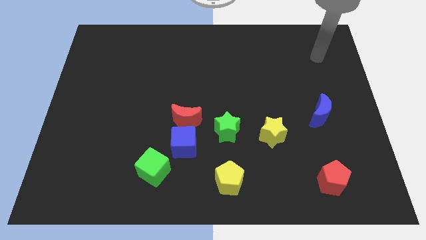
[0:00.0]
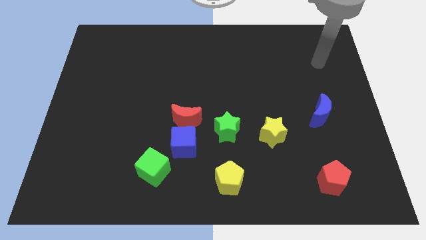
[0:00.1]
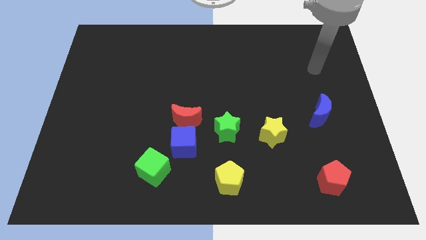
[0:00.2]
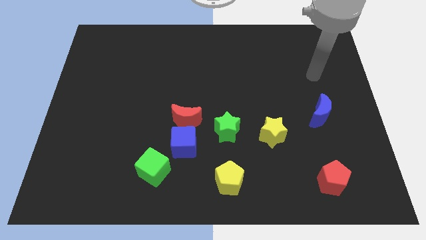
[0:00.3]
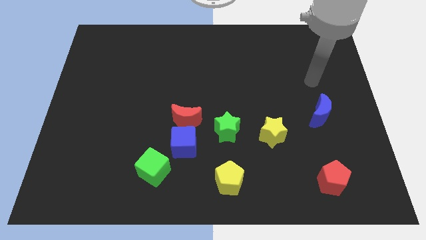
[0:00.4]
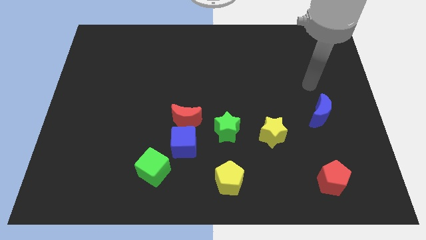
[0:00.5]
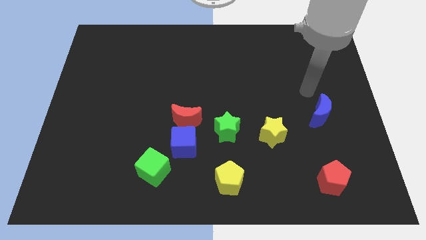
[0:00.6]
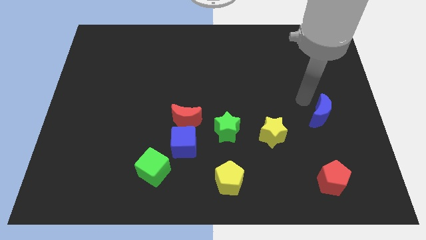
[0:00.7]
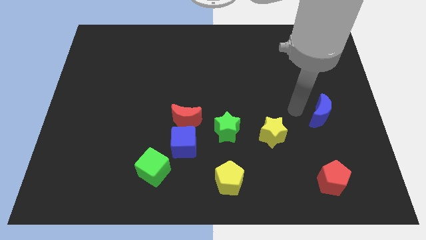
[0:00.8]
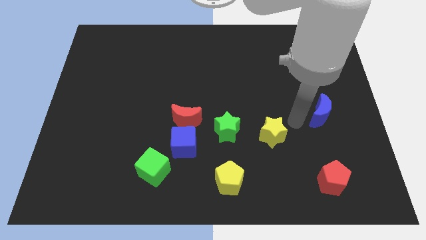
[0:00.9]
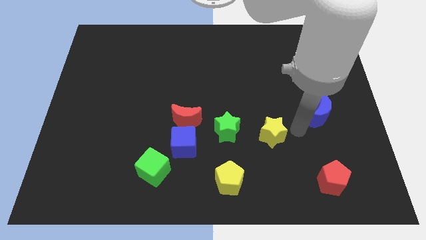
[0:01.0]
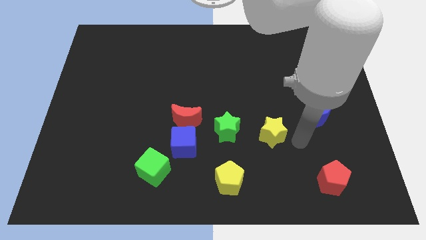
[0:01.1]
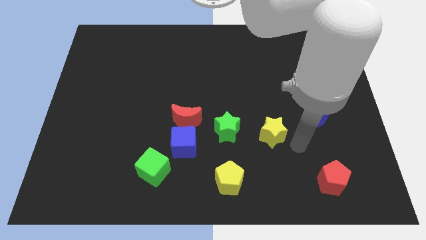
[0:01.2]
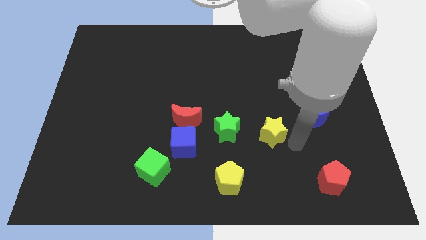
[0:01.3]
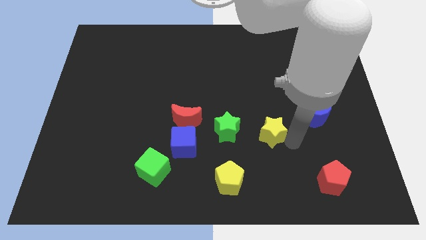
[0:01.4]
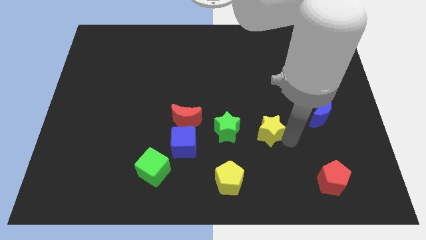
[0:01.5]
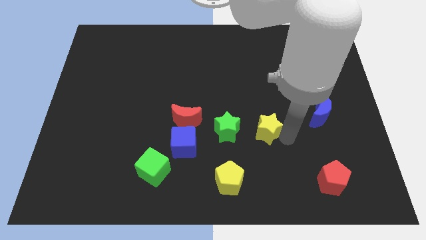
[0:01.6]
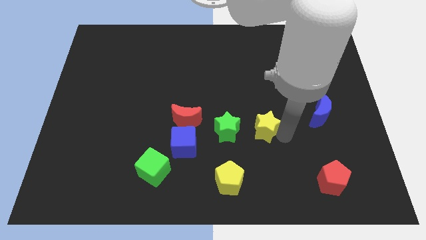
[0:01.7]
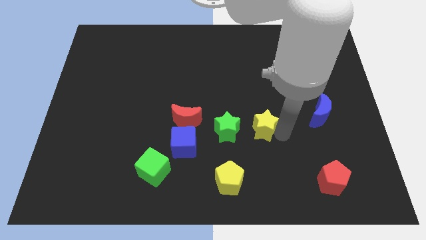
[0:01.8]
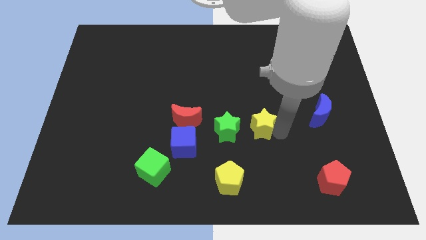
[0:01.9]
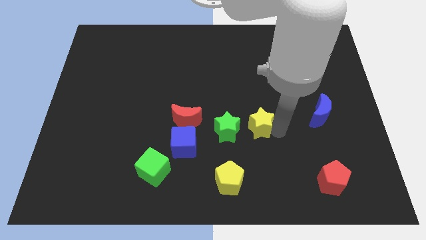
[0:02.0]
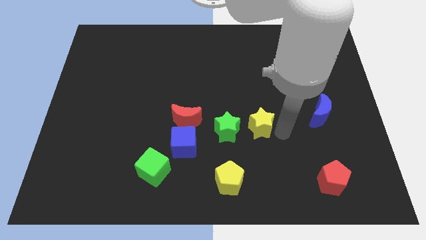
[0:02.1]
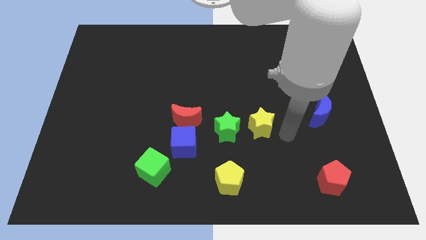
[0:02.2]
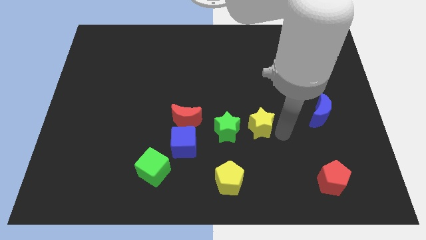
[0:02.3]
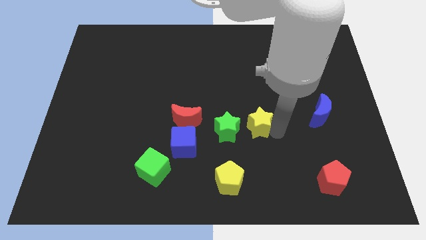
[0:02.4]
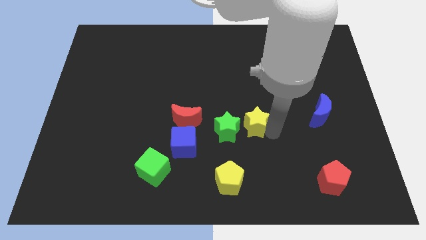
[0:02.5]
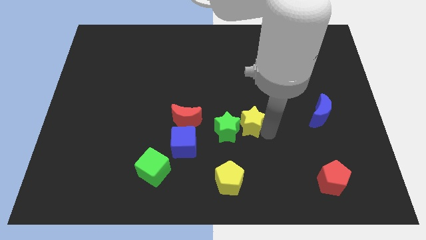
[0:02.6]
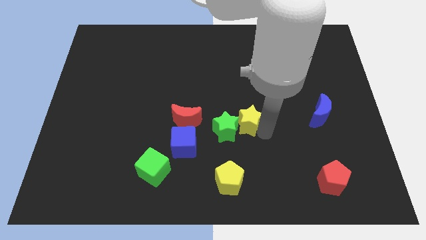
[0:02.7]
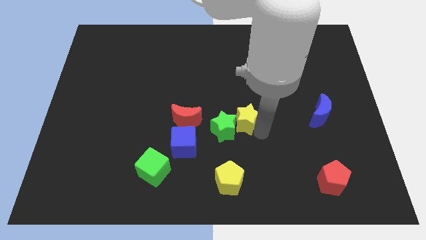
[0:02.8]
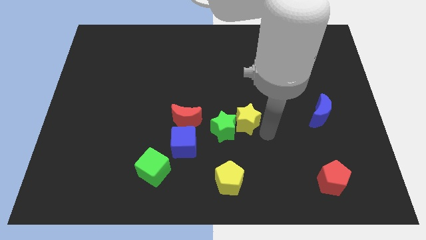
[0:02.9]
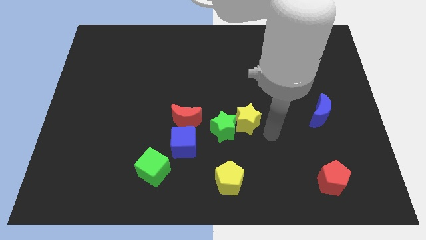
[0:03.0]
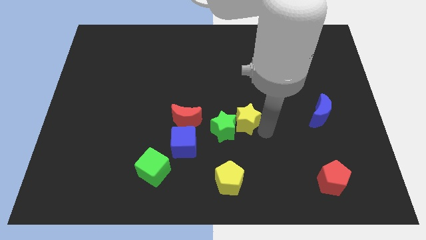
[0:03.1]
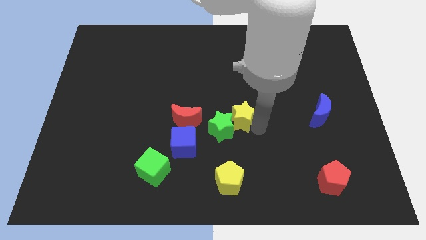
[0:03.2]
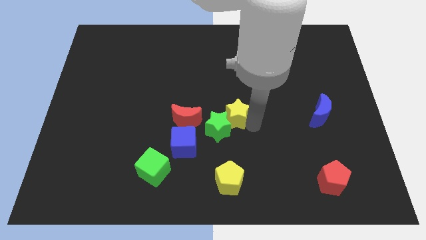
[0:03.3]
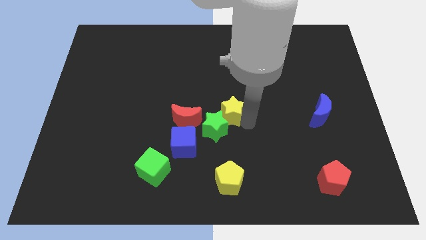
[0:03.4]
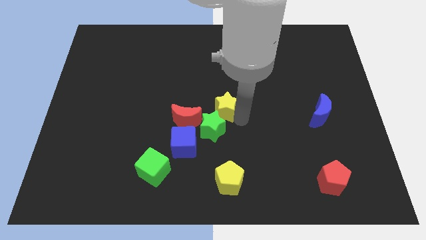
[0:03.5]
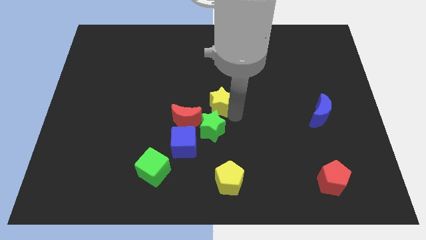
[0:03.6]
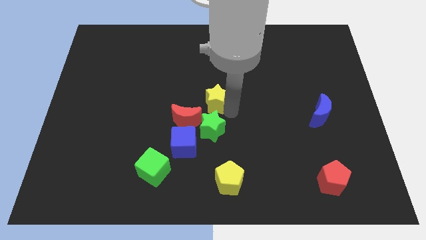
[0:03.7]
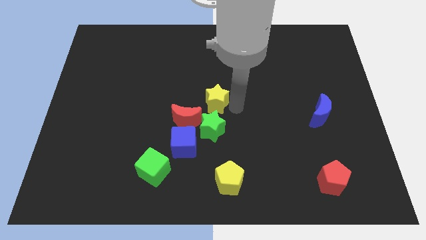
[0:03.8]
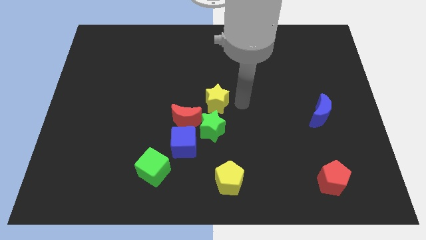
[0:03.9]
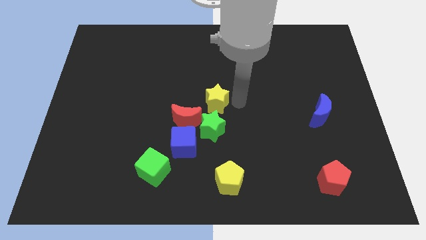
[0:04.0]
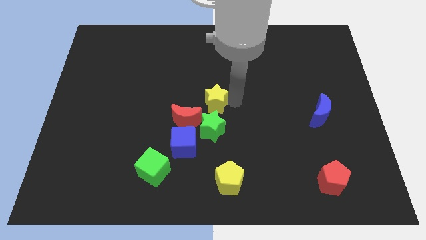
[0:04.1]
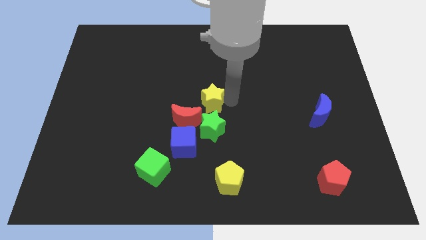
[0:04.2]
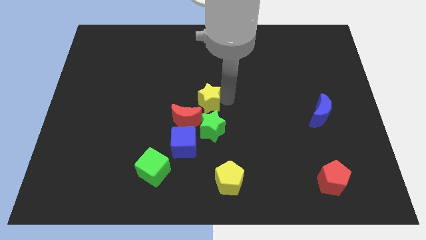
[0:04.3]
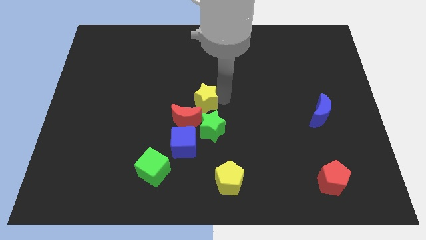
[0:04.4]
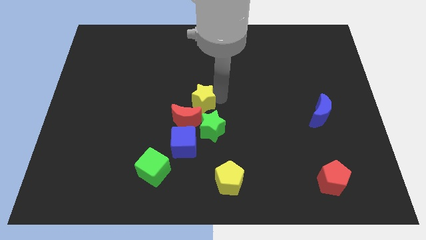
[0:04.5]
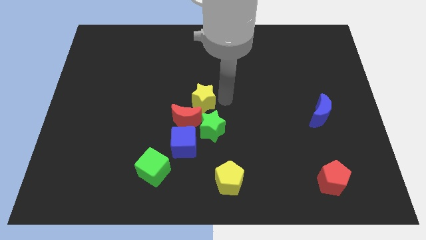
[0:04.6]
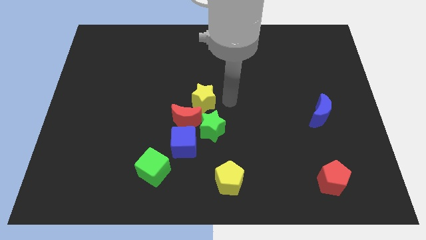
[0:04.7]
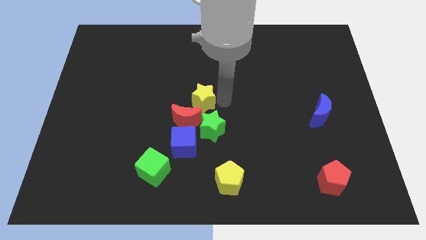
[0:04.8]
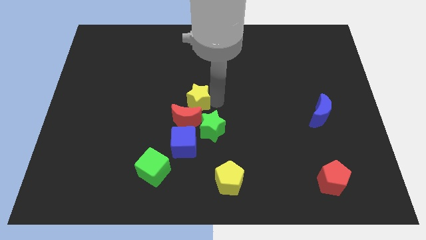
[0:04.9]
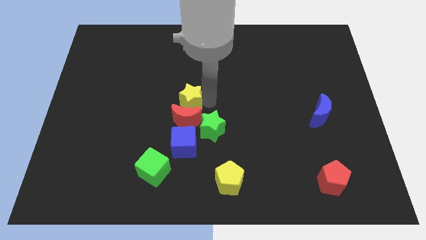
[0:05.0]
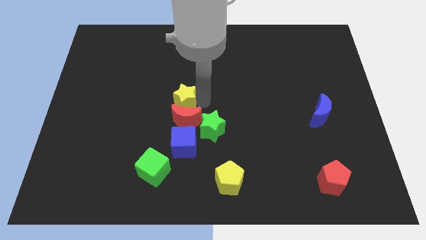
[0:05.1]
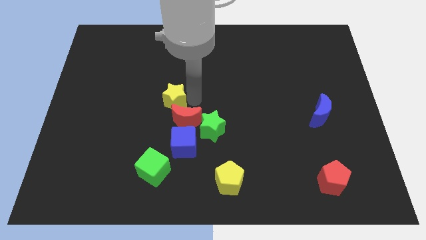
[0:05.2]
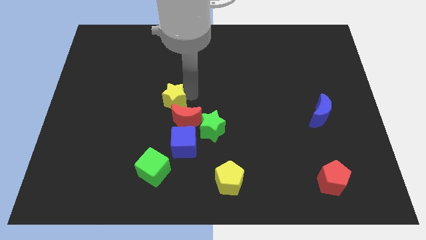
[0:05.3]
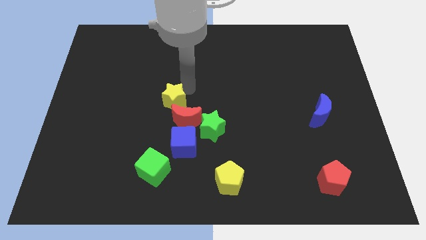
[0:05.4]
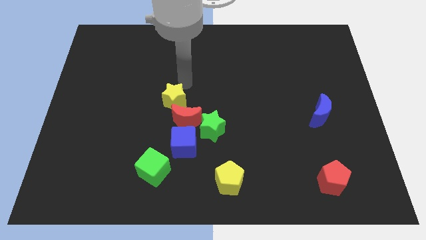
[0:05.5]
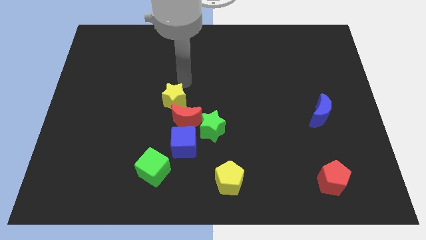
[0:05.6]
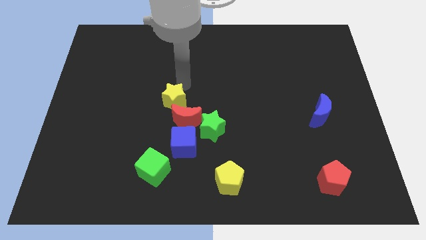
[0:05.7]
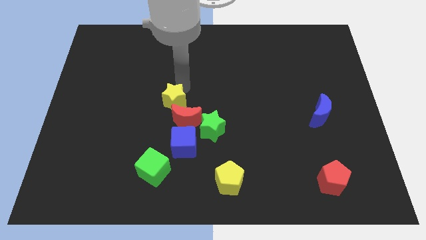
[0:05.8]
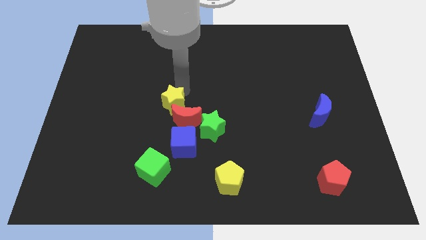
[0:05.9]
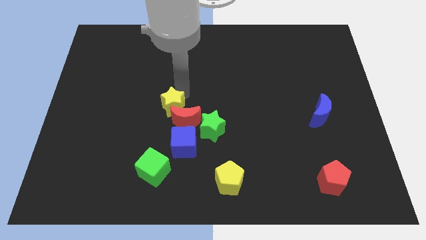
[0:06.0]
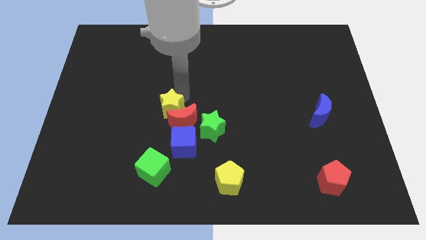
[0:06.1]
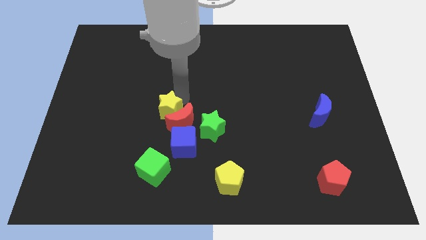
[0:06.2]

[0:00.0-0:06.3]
put the yellow star to the top side of the green cube

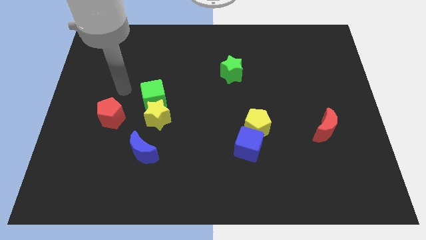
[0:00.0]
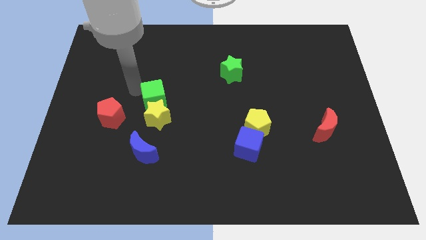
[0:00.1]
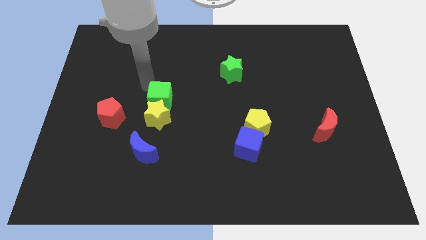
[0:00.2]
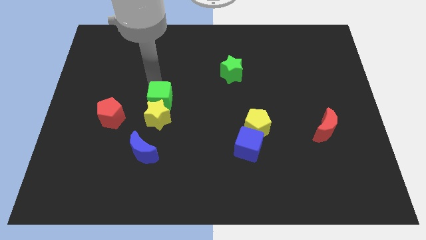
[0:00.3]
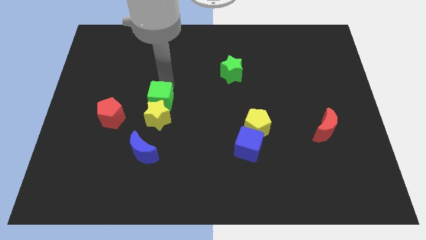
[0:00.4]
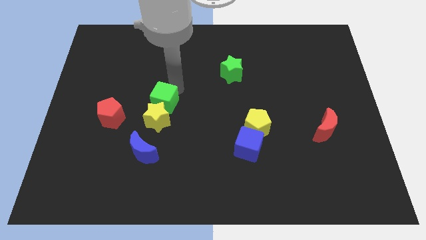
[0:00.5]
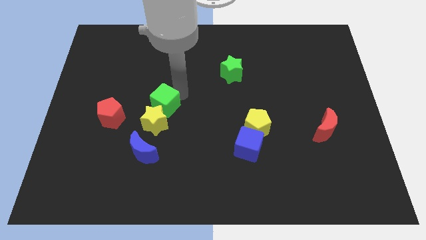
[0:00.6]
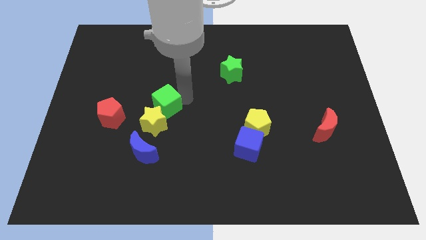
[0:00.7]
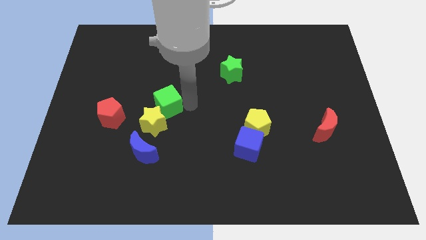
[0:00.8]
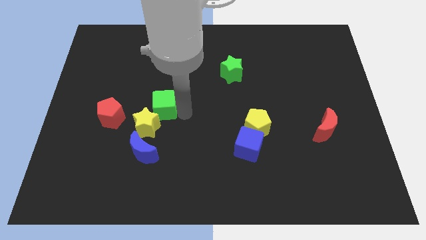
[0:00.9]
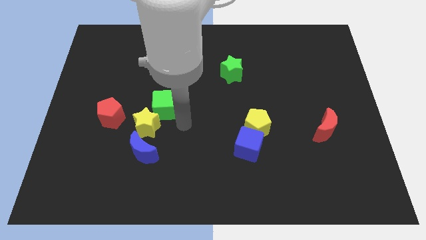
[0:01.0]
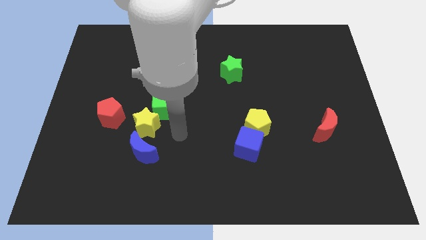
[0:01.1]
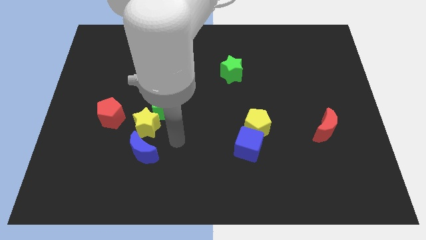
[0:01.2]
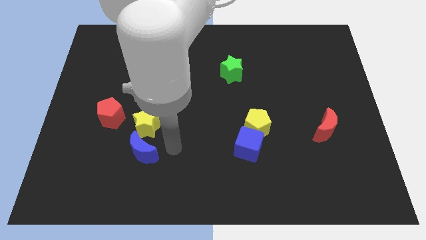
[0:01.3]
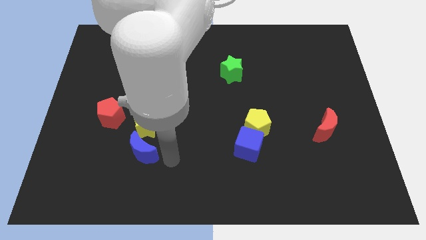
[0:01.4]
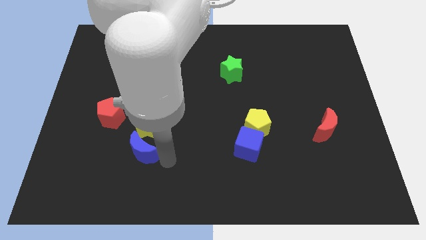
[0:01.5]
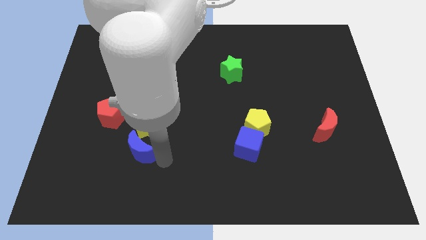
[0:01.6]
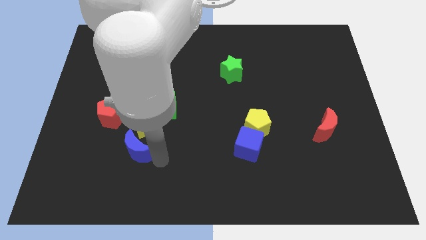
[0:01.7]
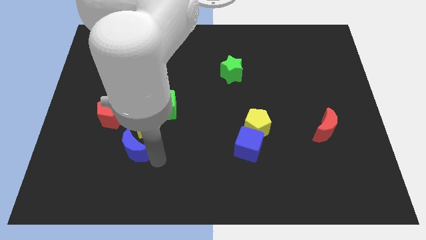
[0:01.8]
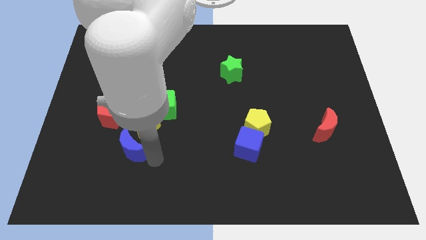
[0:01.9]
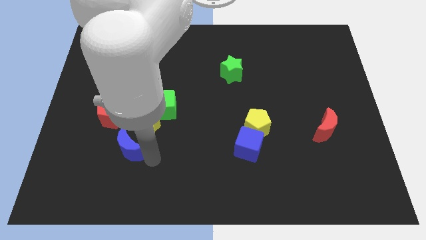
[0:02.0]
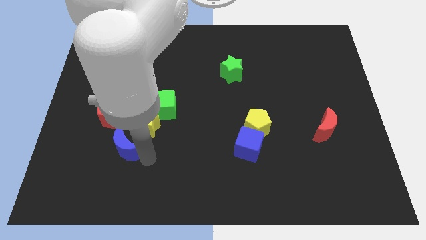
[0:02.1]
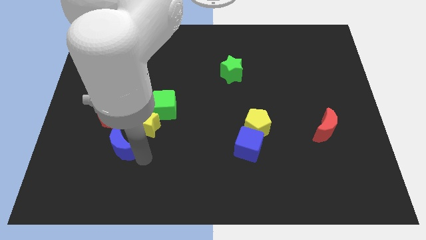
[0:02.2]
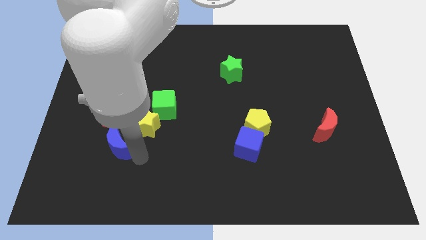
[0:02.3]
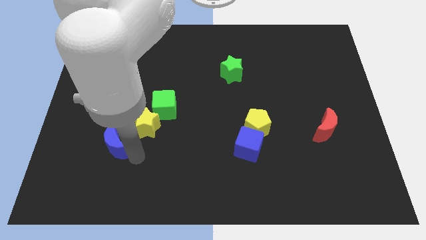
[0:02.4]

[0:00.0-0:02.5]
slide the blue moon to the left side of the yellow star
